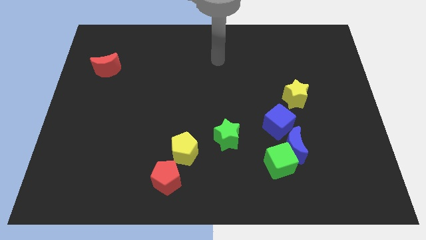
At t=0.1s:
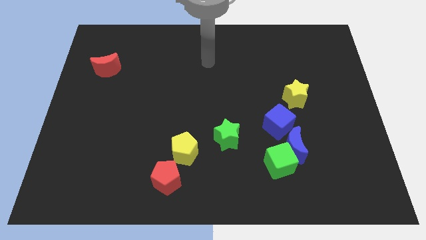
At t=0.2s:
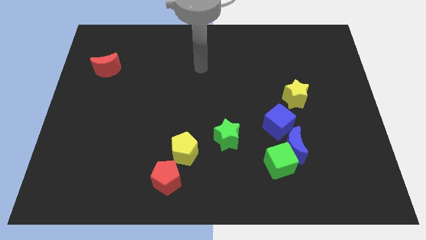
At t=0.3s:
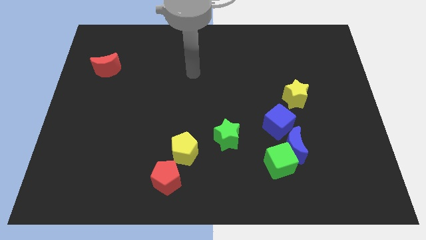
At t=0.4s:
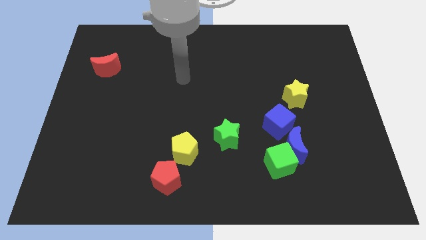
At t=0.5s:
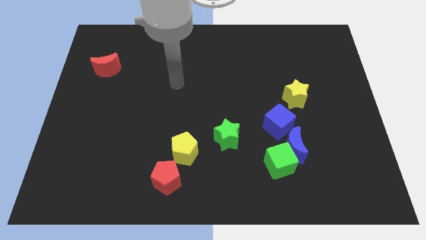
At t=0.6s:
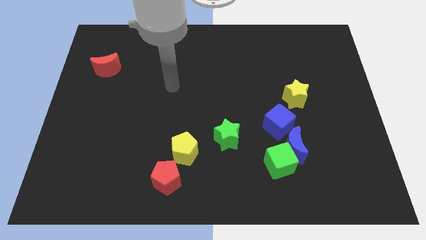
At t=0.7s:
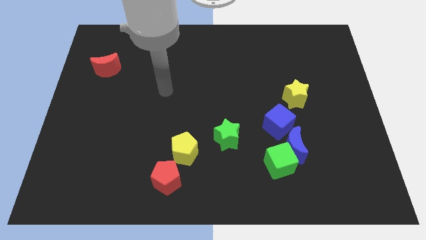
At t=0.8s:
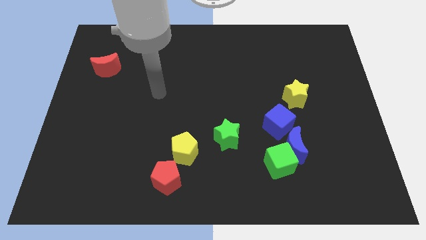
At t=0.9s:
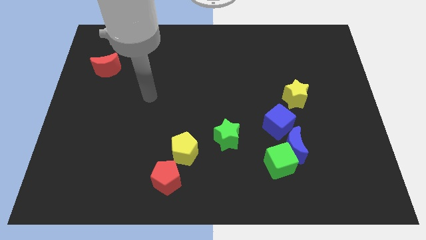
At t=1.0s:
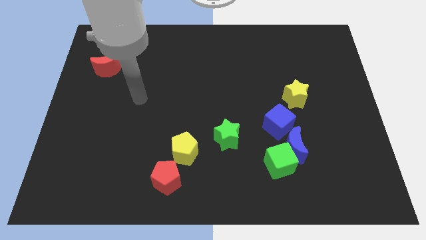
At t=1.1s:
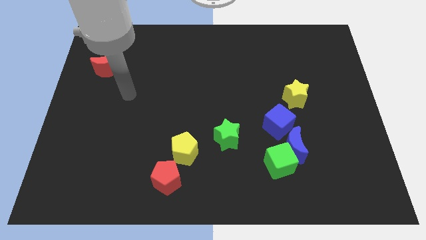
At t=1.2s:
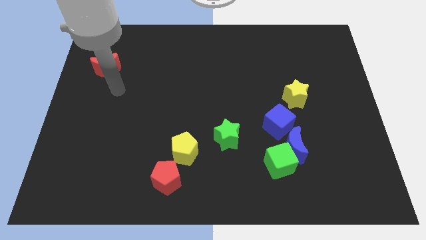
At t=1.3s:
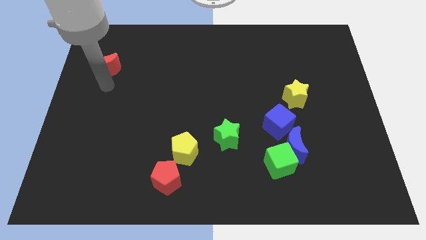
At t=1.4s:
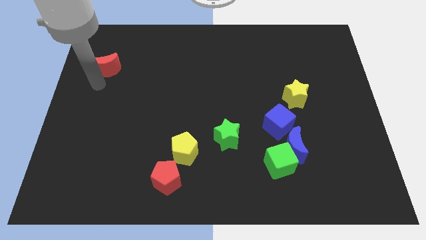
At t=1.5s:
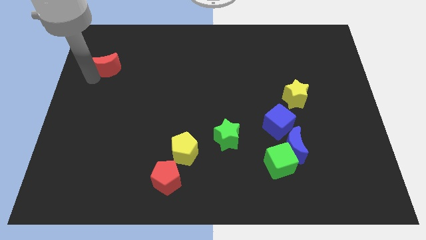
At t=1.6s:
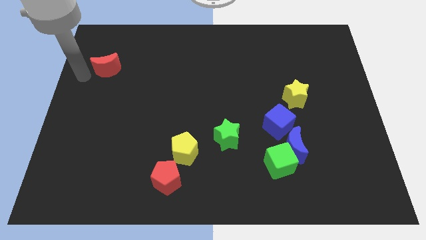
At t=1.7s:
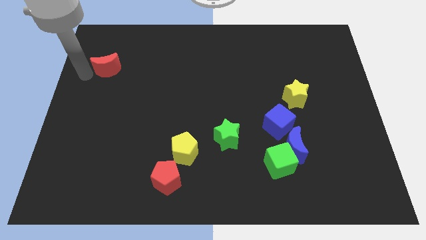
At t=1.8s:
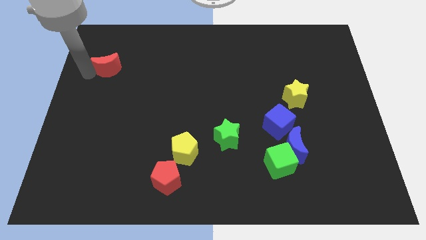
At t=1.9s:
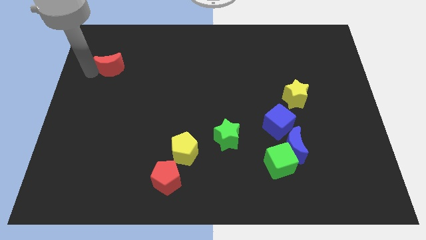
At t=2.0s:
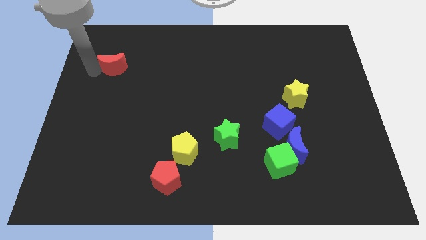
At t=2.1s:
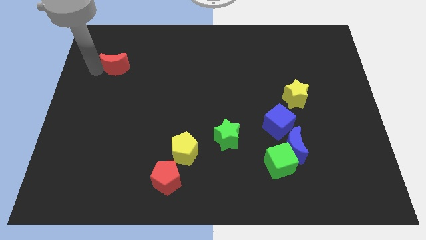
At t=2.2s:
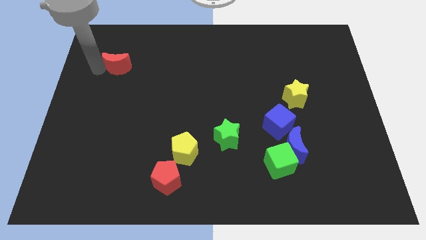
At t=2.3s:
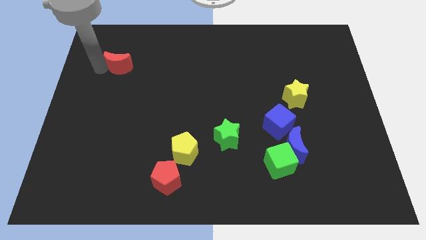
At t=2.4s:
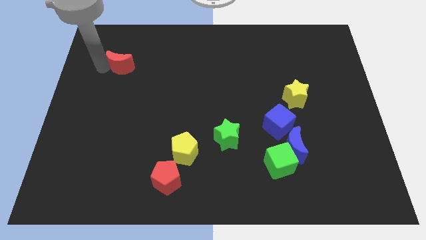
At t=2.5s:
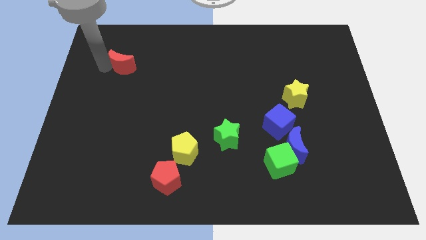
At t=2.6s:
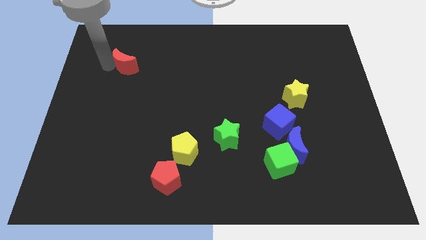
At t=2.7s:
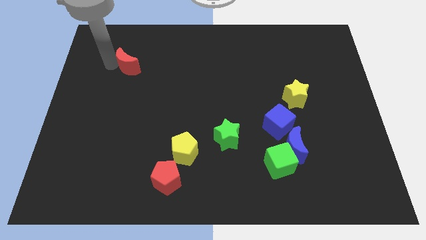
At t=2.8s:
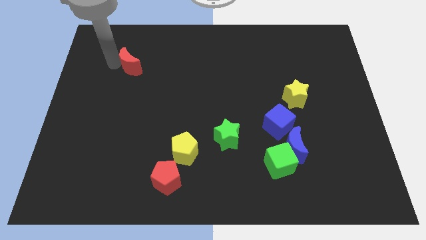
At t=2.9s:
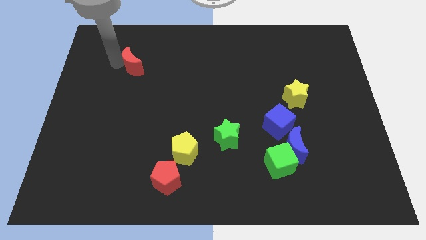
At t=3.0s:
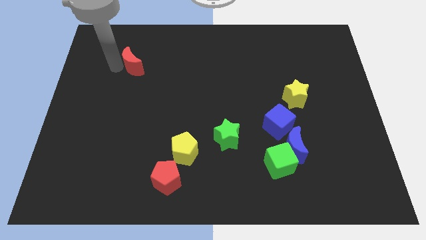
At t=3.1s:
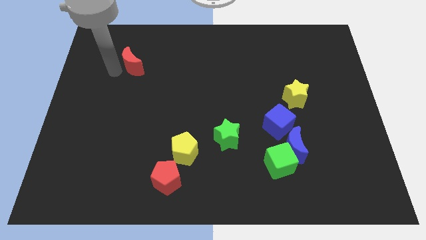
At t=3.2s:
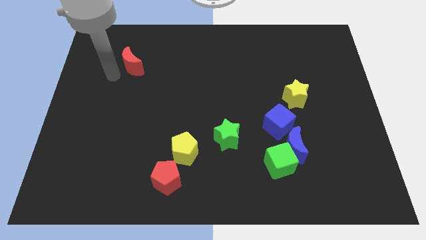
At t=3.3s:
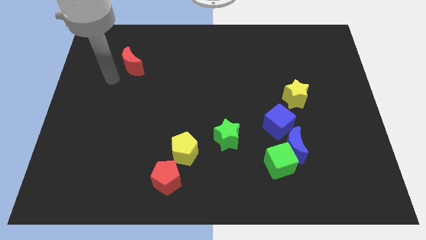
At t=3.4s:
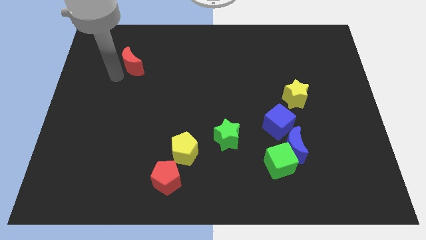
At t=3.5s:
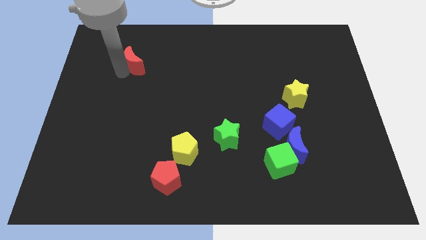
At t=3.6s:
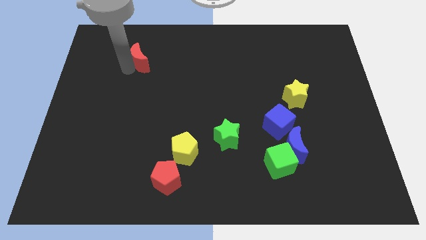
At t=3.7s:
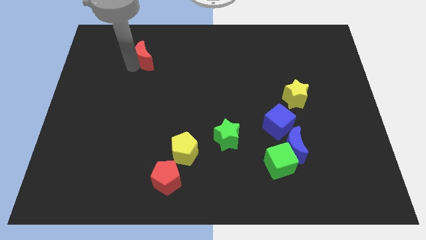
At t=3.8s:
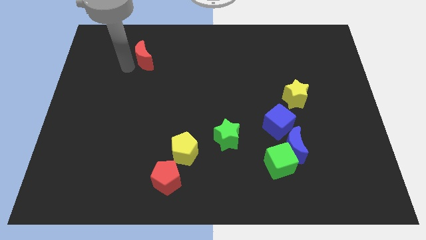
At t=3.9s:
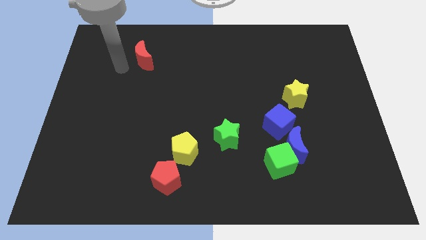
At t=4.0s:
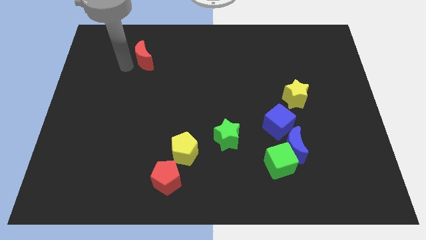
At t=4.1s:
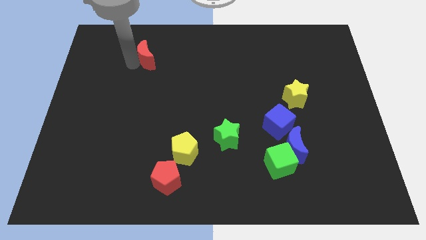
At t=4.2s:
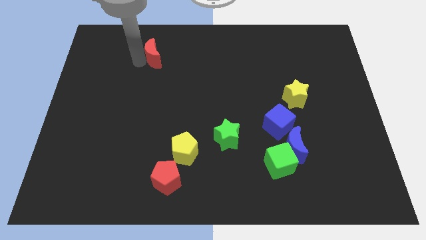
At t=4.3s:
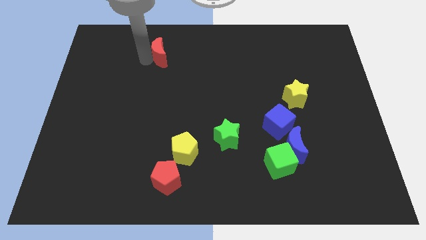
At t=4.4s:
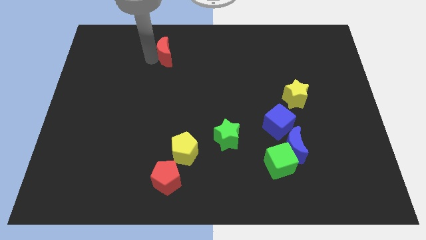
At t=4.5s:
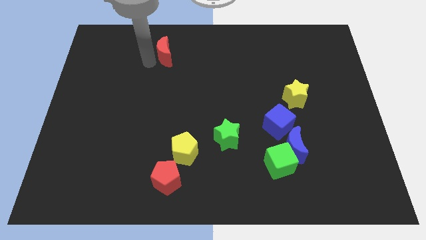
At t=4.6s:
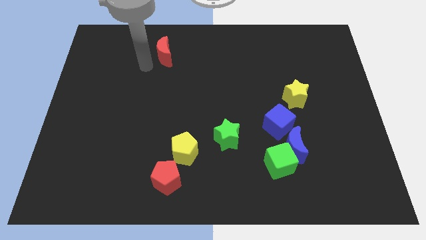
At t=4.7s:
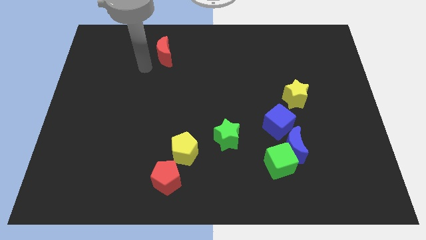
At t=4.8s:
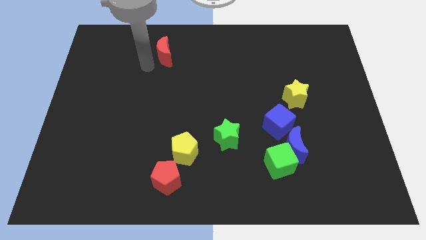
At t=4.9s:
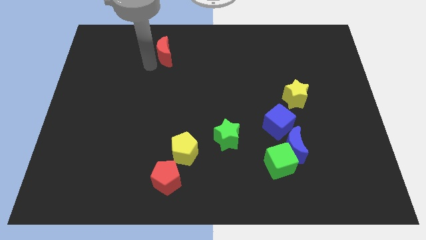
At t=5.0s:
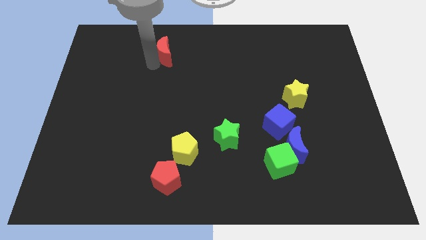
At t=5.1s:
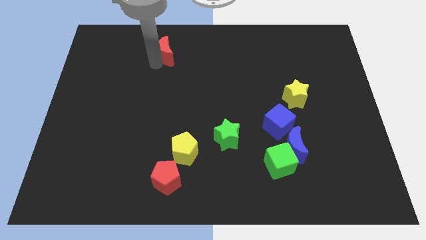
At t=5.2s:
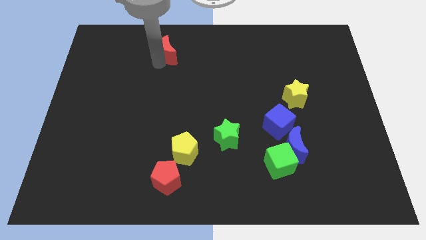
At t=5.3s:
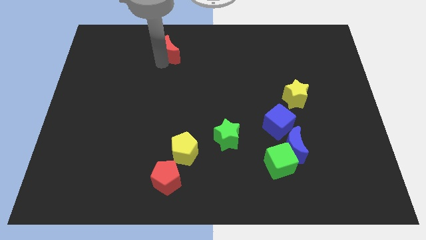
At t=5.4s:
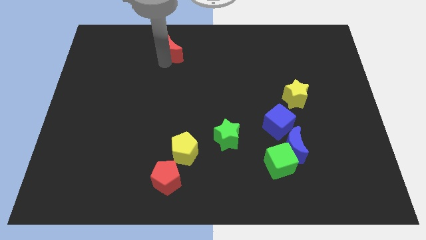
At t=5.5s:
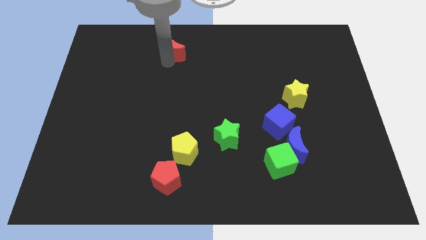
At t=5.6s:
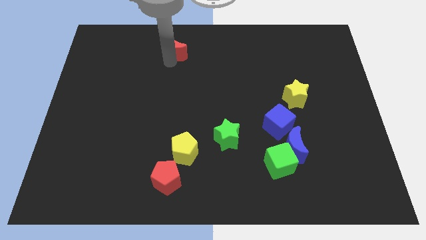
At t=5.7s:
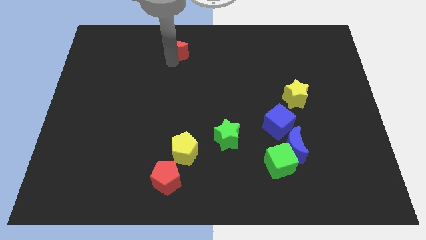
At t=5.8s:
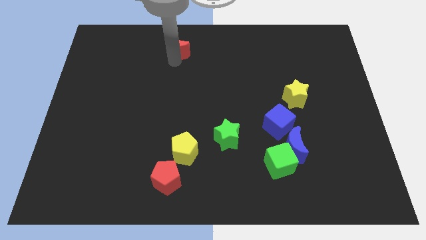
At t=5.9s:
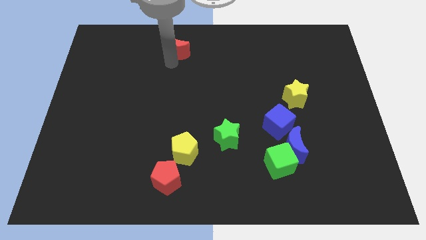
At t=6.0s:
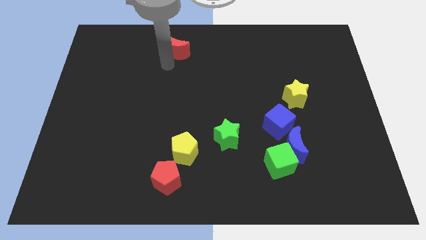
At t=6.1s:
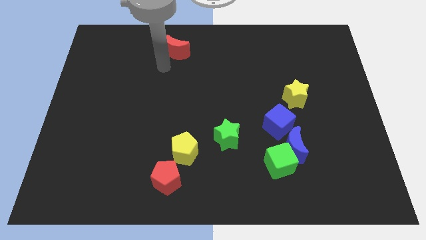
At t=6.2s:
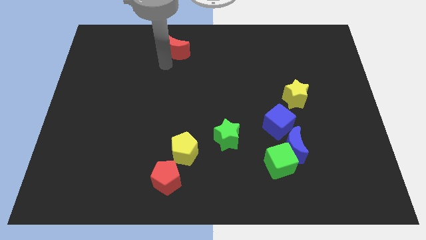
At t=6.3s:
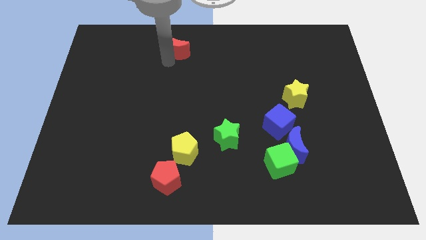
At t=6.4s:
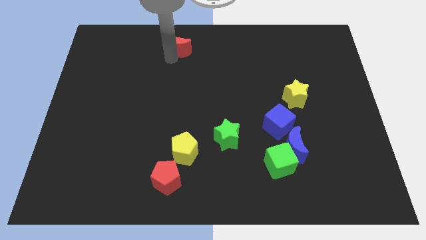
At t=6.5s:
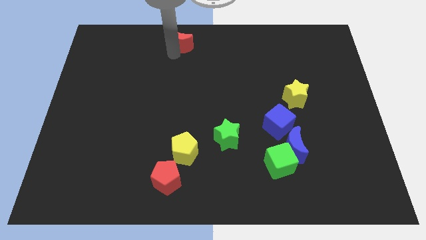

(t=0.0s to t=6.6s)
put the red moon to the top side
